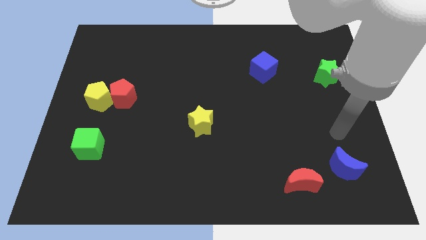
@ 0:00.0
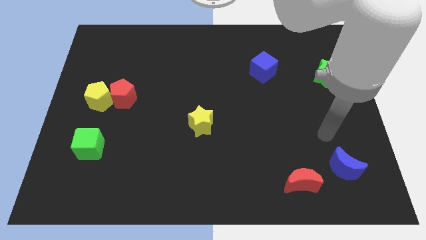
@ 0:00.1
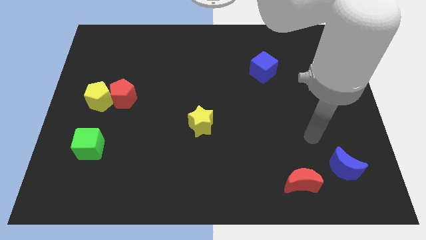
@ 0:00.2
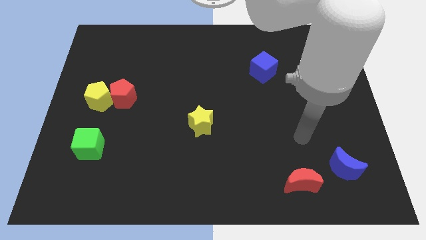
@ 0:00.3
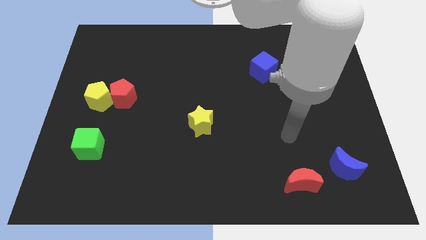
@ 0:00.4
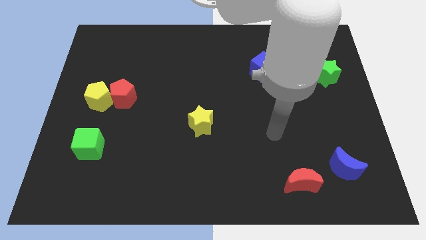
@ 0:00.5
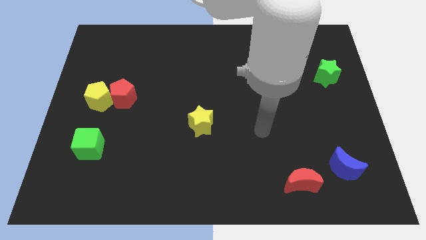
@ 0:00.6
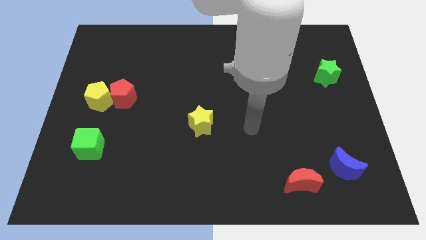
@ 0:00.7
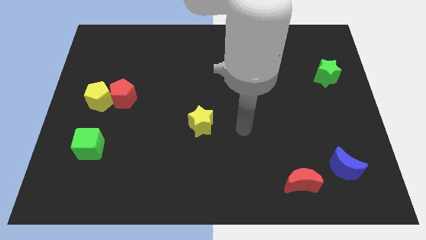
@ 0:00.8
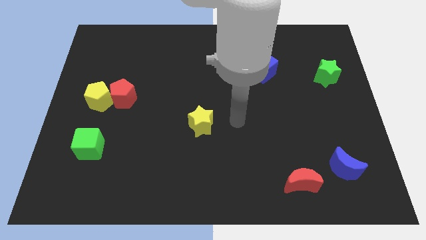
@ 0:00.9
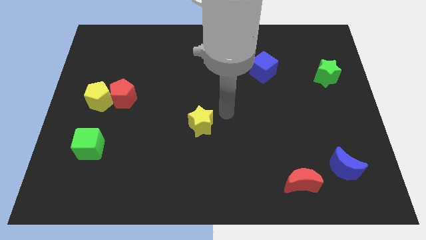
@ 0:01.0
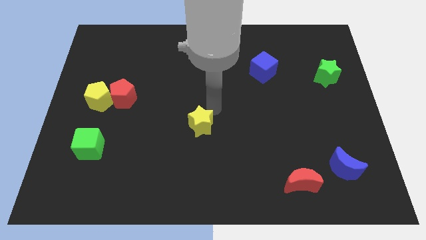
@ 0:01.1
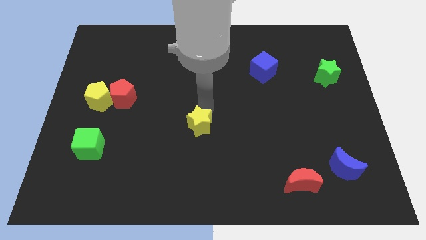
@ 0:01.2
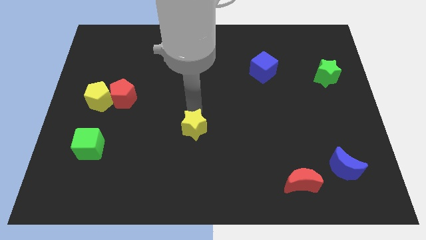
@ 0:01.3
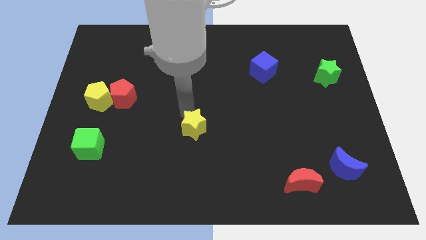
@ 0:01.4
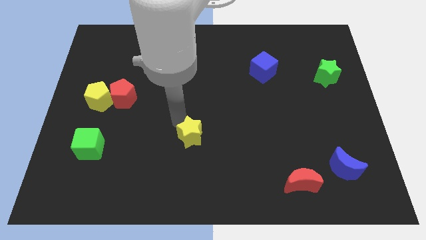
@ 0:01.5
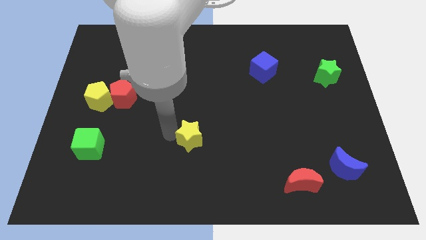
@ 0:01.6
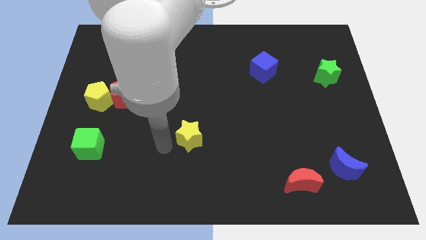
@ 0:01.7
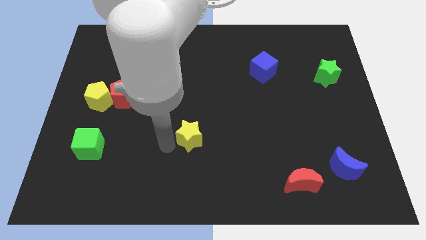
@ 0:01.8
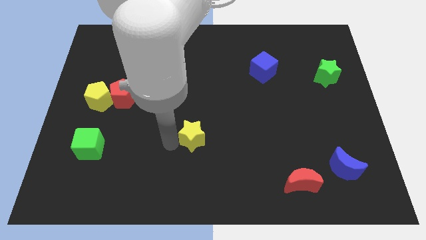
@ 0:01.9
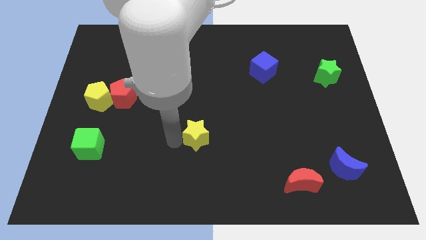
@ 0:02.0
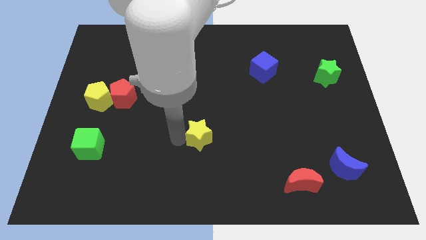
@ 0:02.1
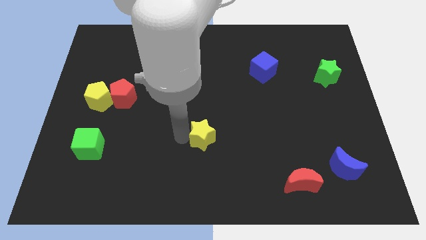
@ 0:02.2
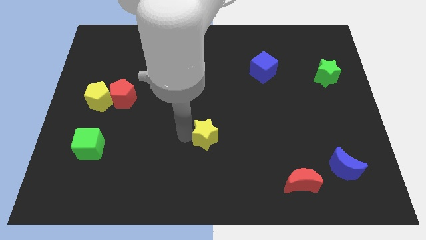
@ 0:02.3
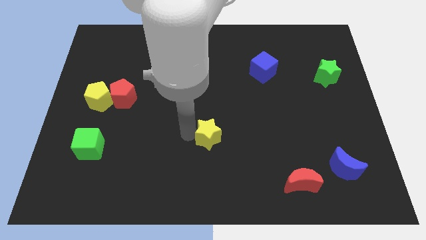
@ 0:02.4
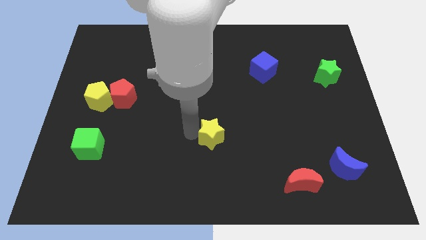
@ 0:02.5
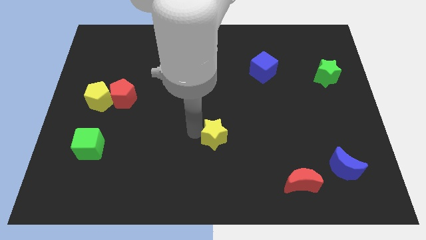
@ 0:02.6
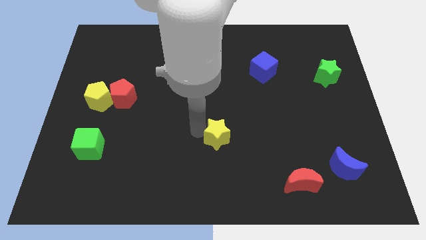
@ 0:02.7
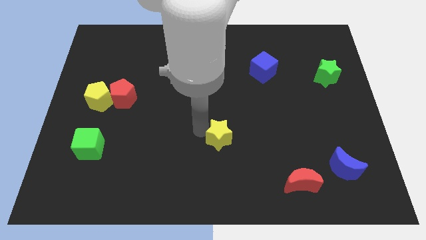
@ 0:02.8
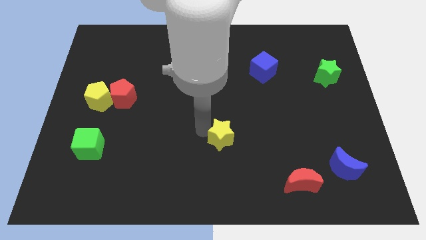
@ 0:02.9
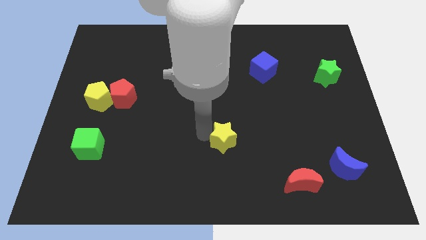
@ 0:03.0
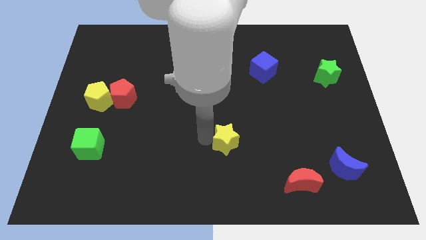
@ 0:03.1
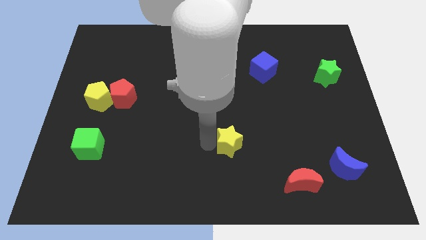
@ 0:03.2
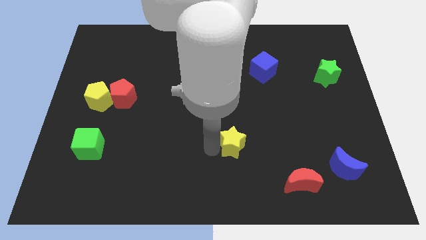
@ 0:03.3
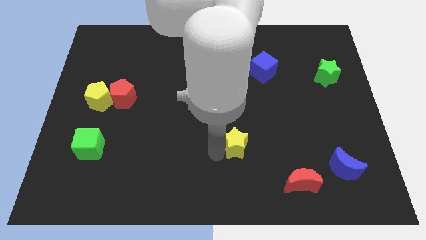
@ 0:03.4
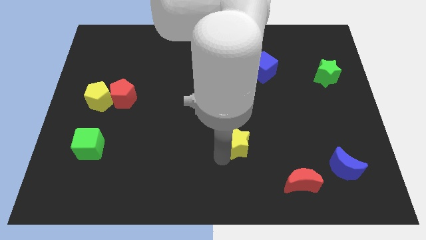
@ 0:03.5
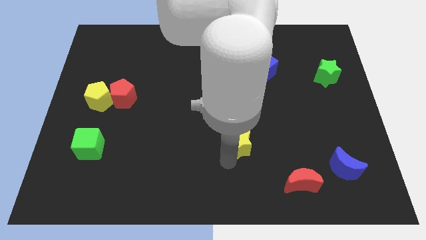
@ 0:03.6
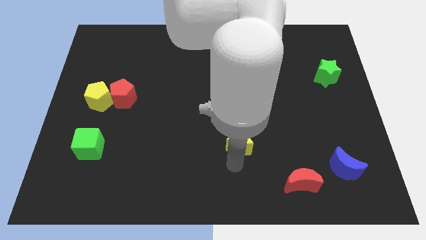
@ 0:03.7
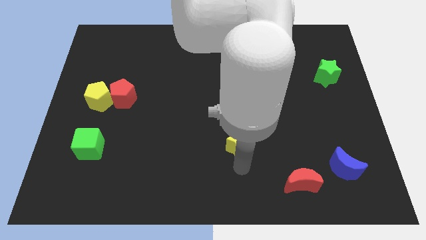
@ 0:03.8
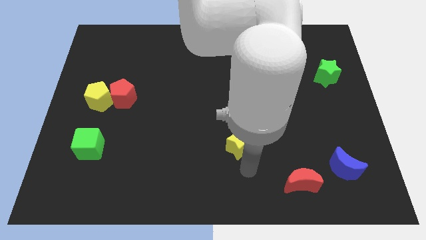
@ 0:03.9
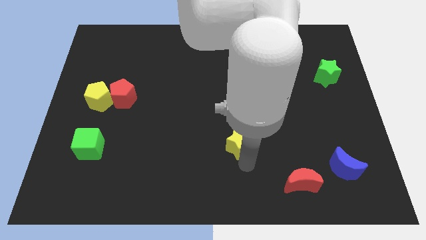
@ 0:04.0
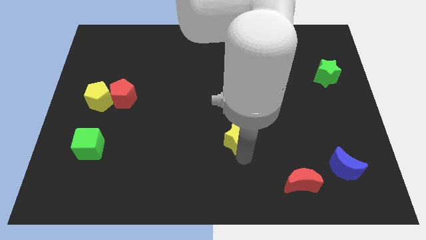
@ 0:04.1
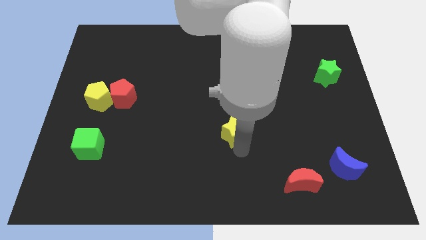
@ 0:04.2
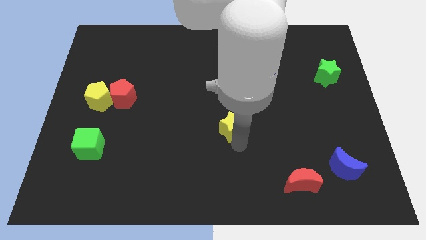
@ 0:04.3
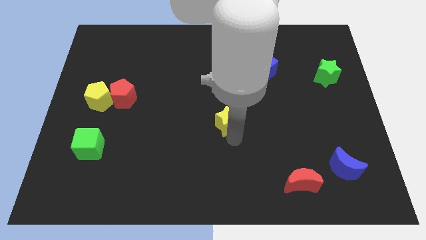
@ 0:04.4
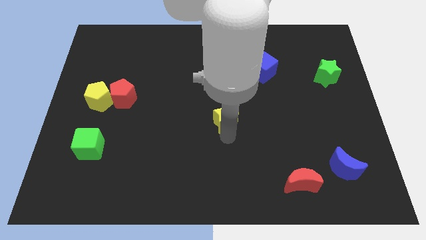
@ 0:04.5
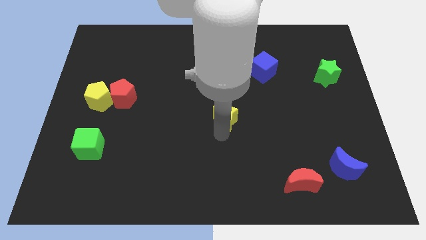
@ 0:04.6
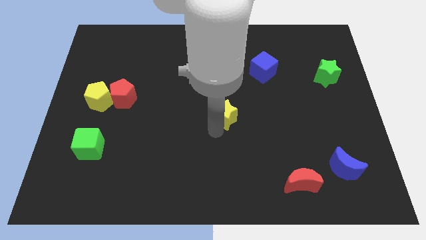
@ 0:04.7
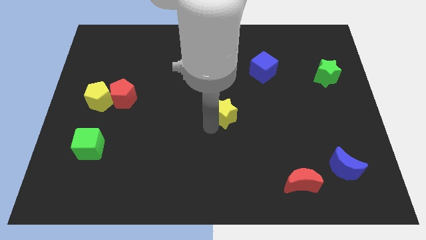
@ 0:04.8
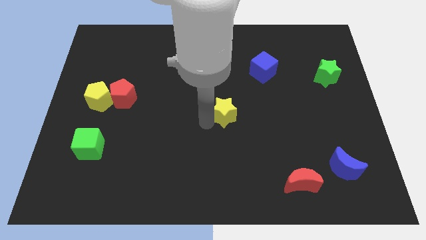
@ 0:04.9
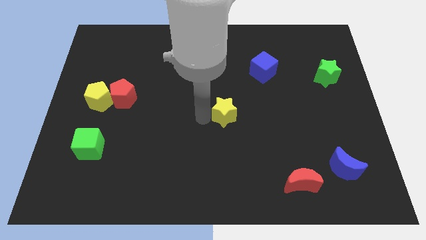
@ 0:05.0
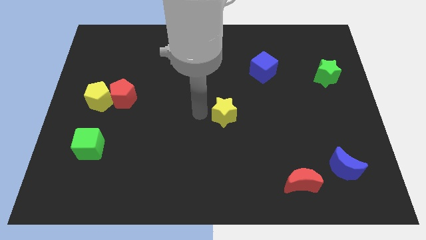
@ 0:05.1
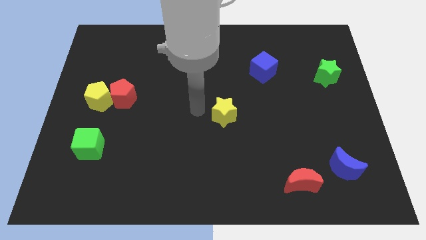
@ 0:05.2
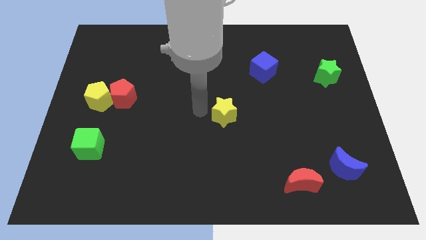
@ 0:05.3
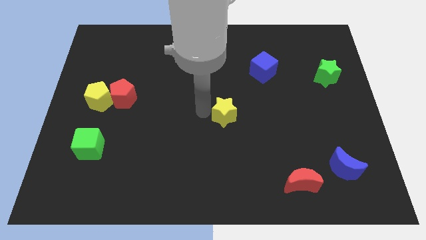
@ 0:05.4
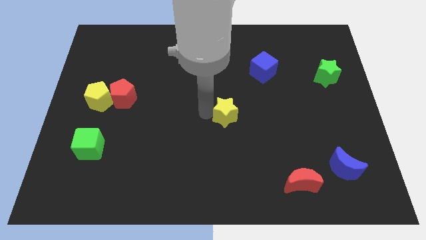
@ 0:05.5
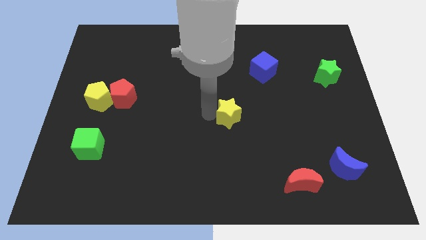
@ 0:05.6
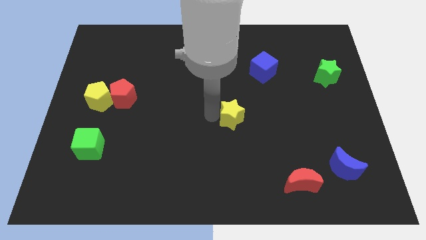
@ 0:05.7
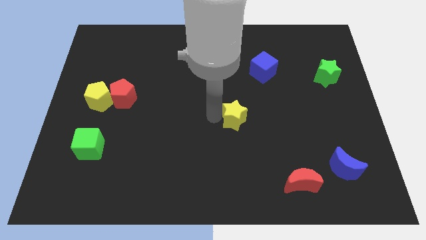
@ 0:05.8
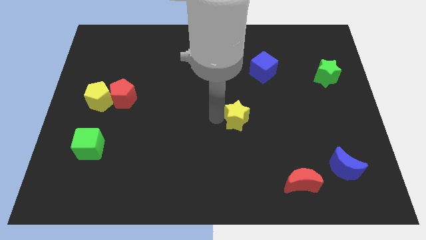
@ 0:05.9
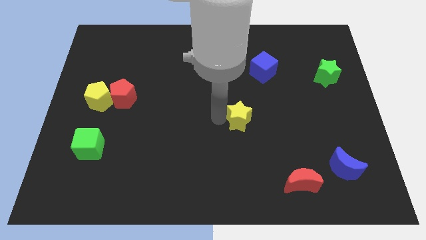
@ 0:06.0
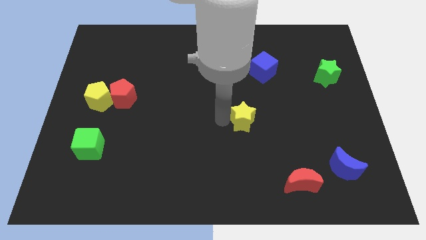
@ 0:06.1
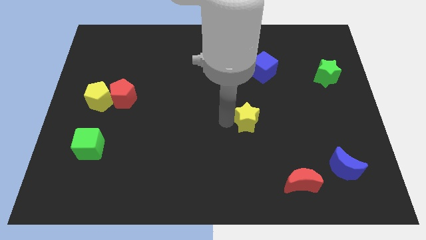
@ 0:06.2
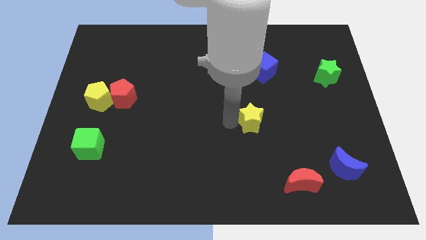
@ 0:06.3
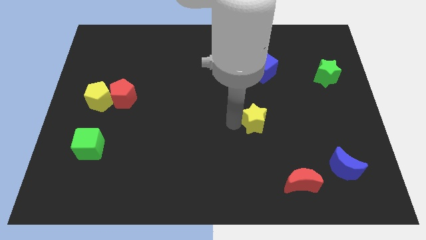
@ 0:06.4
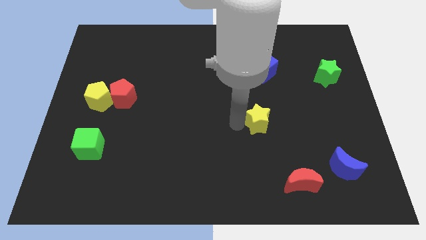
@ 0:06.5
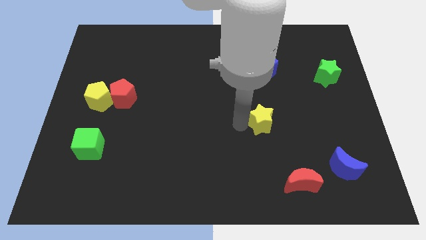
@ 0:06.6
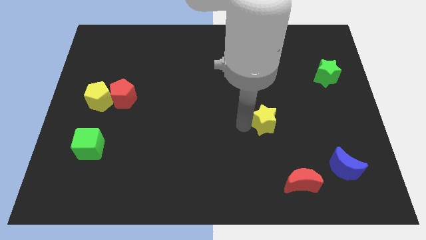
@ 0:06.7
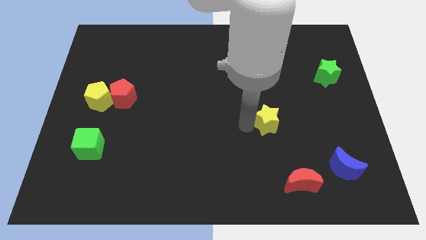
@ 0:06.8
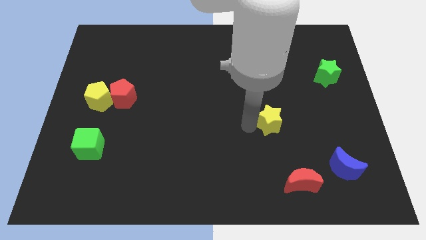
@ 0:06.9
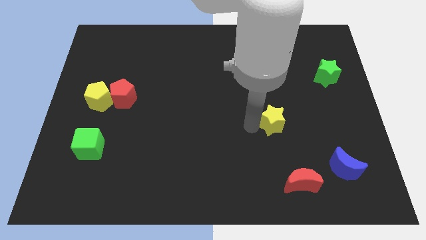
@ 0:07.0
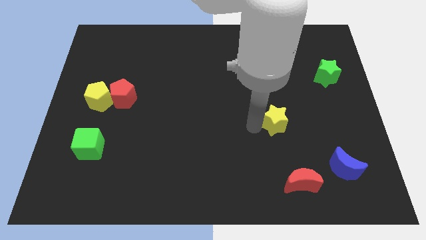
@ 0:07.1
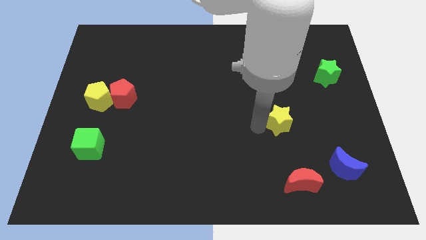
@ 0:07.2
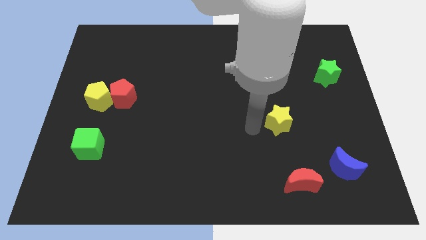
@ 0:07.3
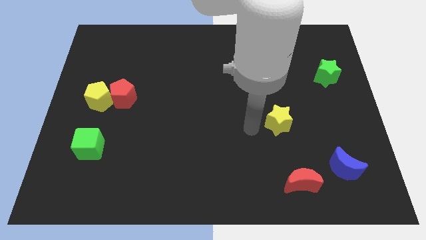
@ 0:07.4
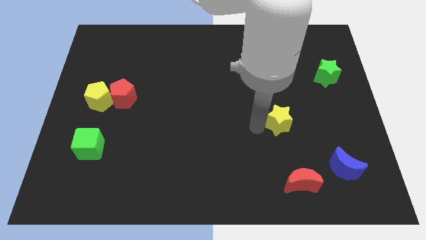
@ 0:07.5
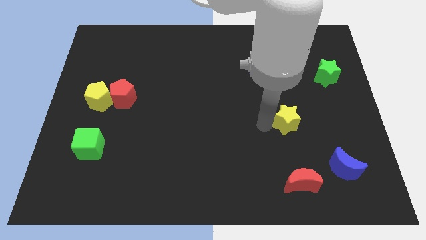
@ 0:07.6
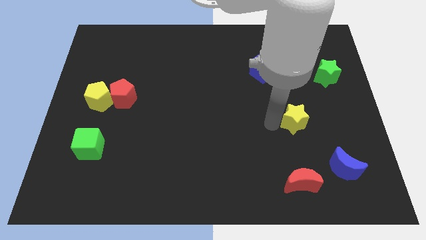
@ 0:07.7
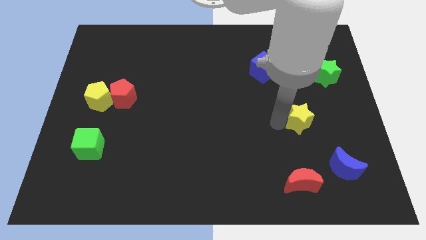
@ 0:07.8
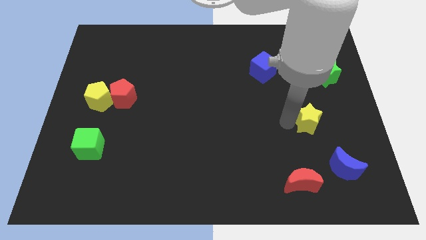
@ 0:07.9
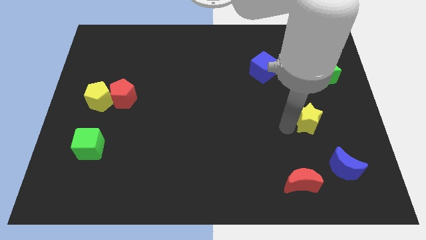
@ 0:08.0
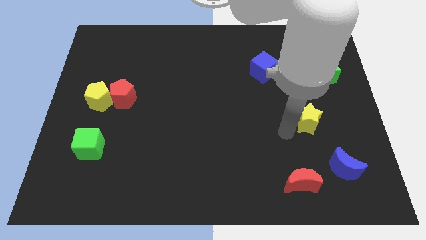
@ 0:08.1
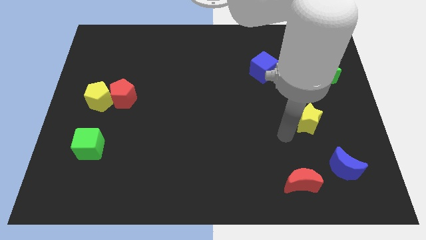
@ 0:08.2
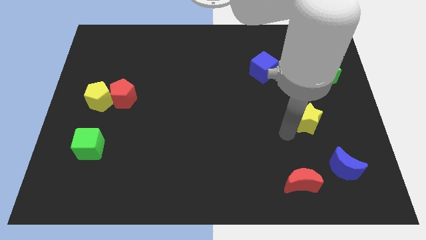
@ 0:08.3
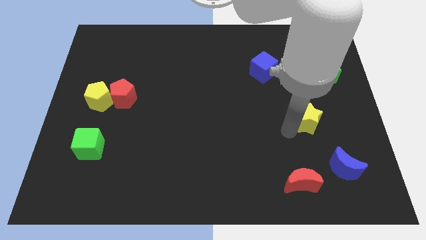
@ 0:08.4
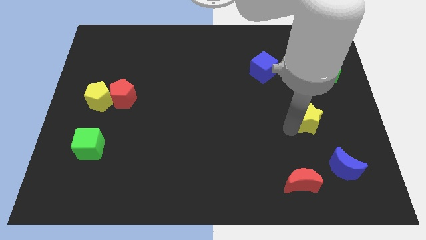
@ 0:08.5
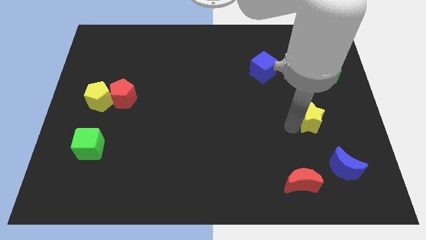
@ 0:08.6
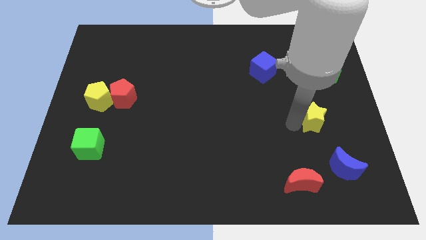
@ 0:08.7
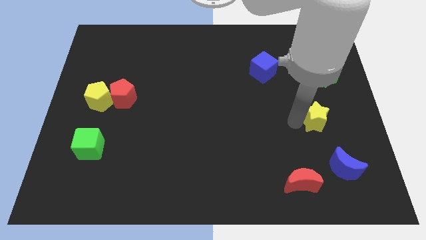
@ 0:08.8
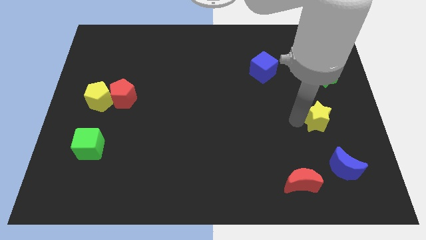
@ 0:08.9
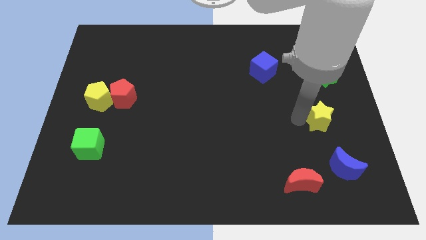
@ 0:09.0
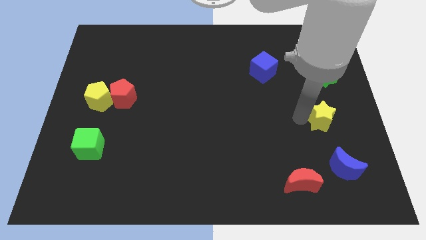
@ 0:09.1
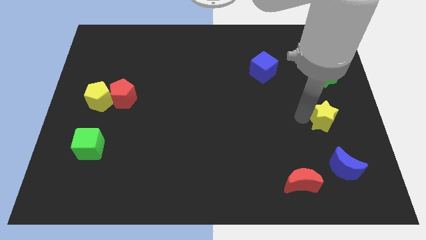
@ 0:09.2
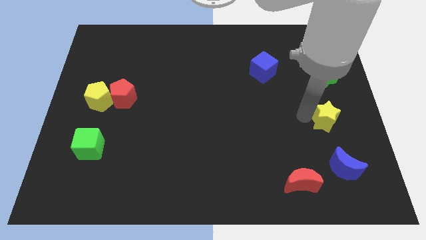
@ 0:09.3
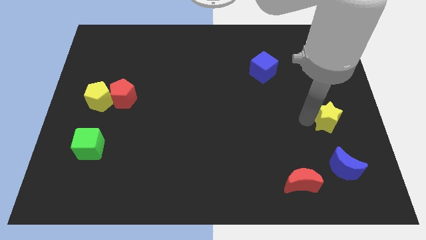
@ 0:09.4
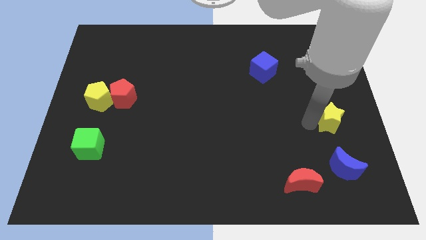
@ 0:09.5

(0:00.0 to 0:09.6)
push the yellow star to the right side of the board
